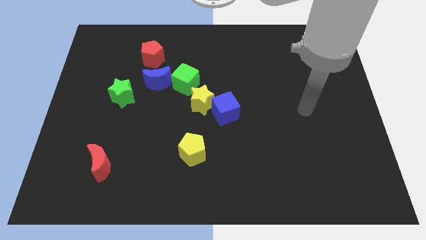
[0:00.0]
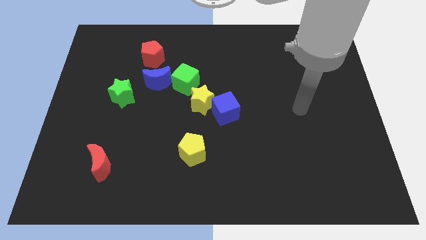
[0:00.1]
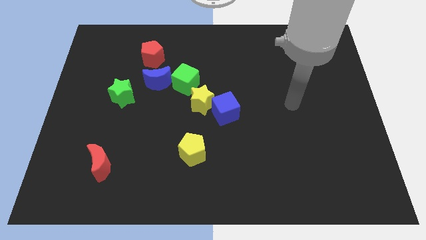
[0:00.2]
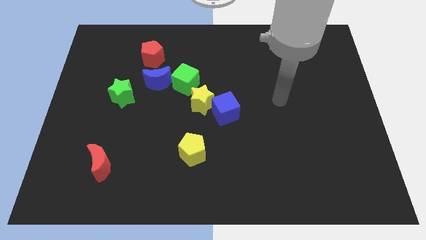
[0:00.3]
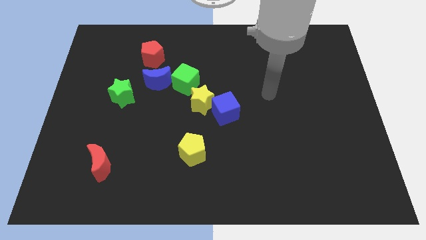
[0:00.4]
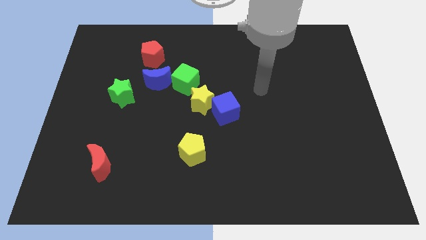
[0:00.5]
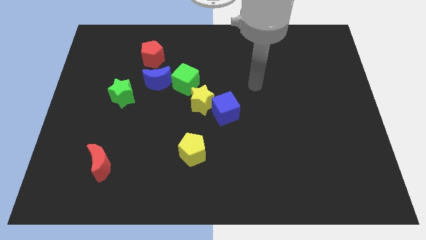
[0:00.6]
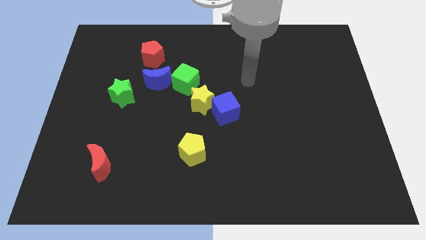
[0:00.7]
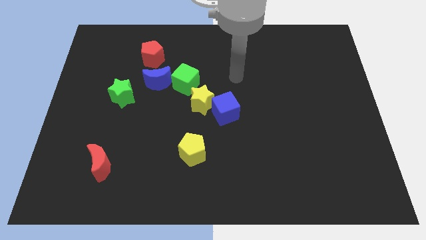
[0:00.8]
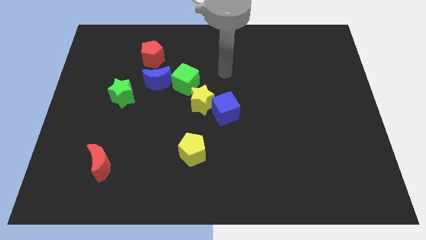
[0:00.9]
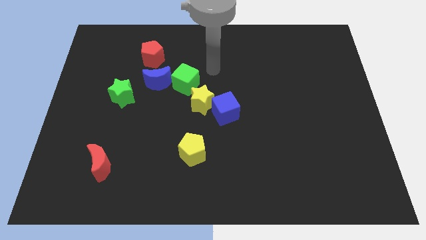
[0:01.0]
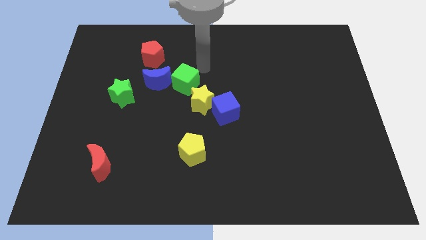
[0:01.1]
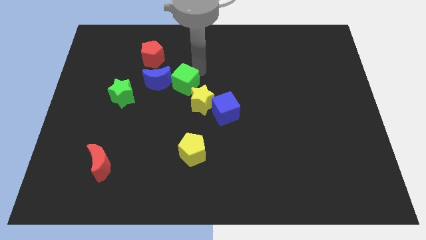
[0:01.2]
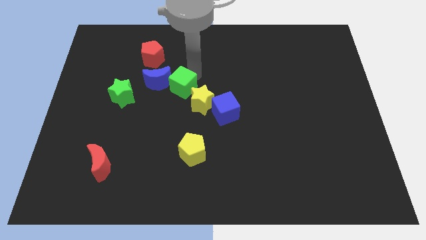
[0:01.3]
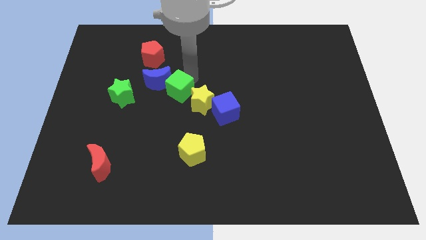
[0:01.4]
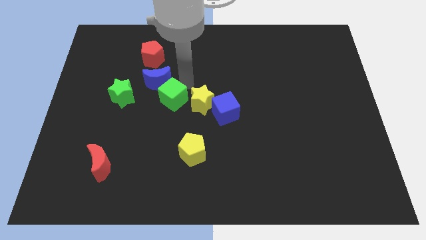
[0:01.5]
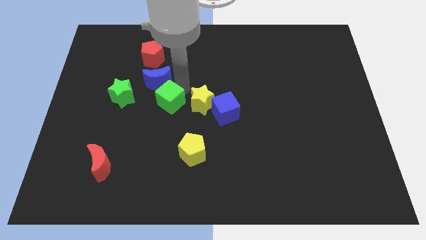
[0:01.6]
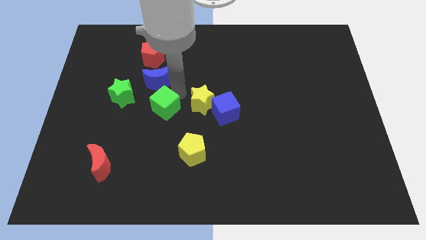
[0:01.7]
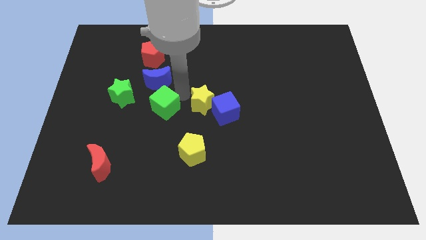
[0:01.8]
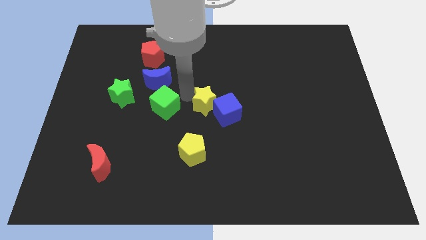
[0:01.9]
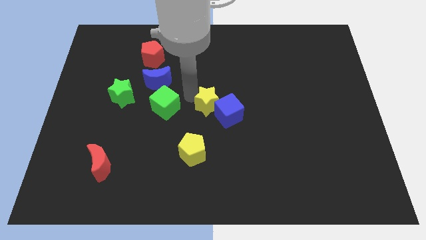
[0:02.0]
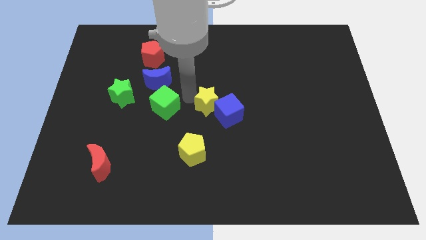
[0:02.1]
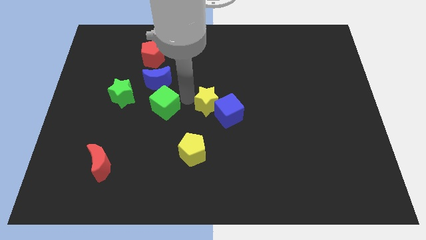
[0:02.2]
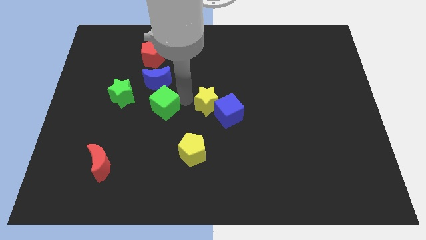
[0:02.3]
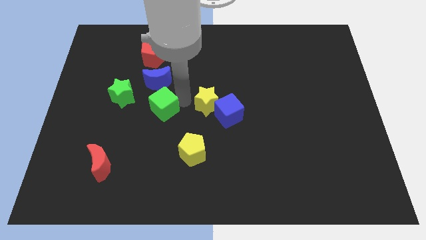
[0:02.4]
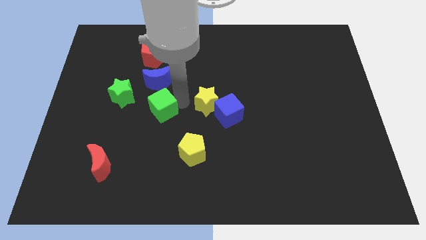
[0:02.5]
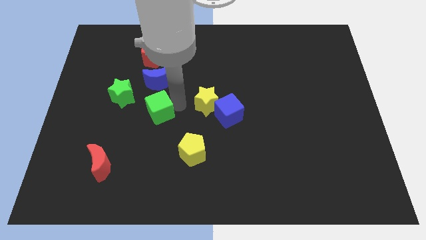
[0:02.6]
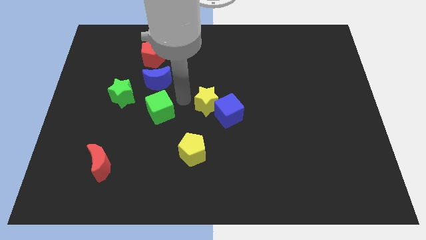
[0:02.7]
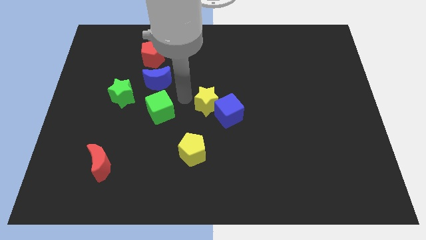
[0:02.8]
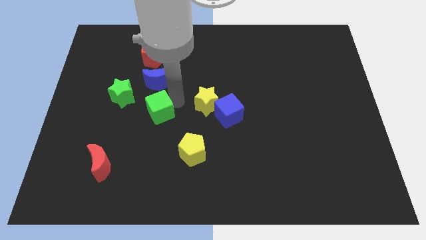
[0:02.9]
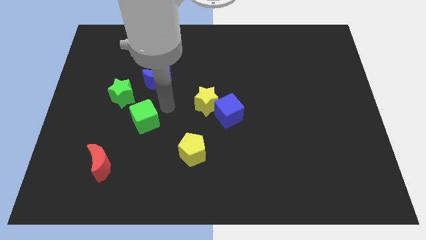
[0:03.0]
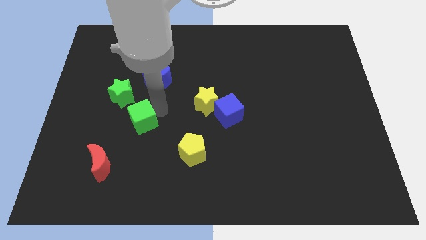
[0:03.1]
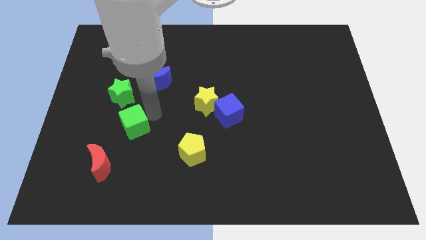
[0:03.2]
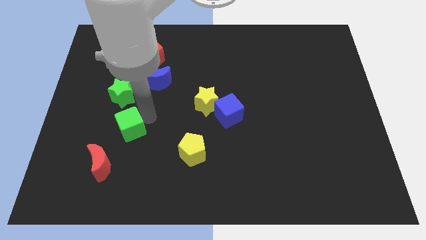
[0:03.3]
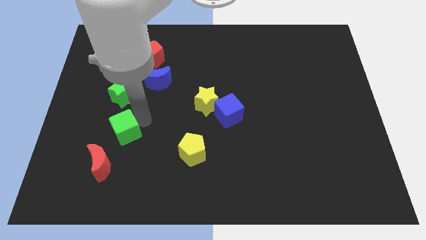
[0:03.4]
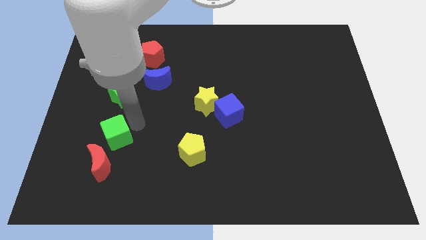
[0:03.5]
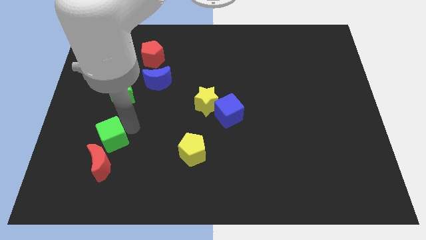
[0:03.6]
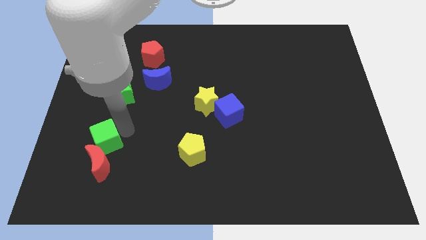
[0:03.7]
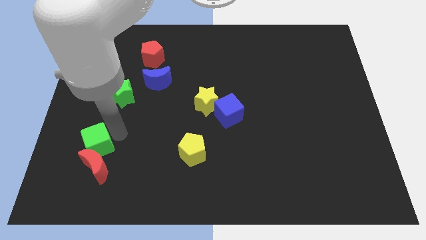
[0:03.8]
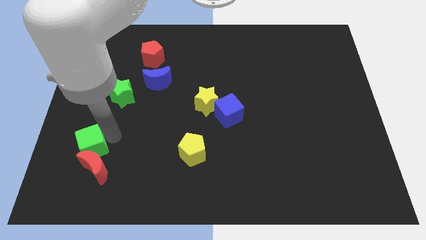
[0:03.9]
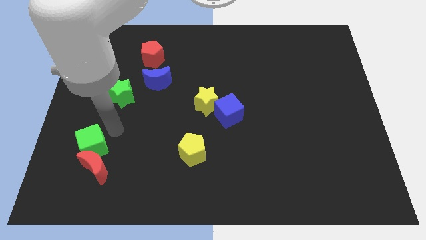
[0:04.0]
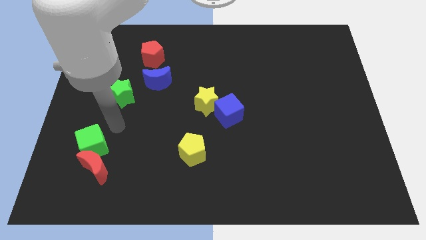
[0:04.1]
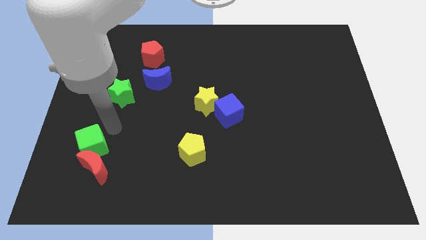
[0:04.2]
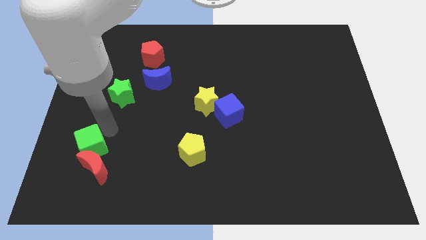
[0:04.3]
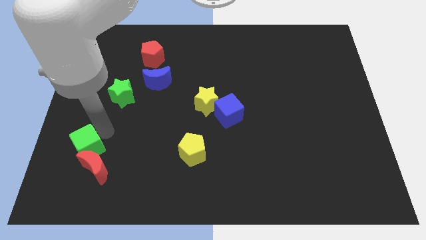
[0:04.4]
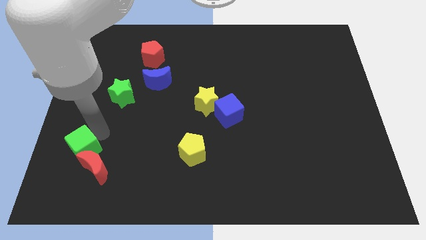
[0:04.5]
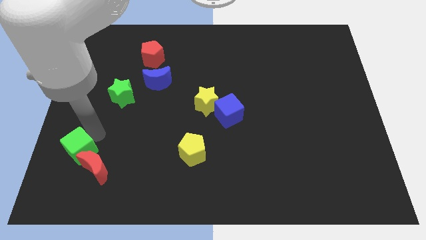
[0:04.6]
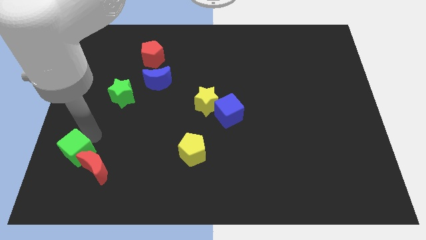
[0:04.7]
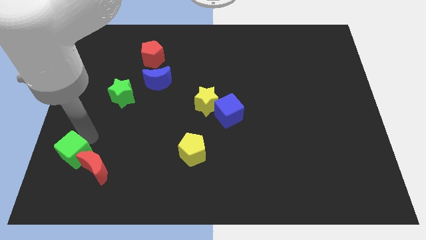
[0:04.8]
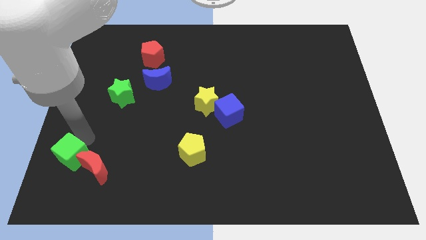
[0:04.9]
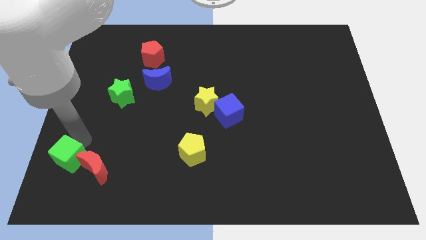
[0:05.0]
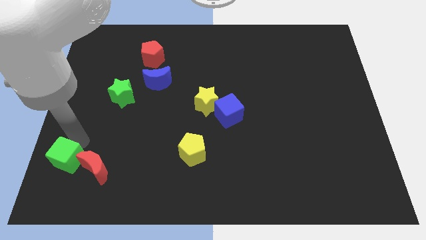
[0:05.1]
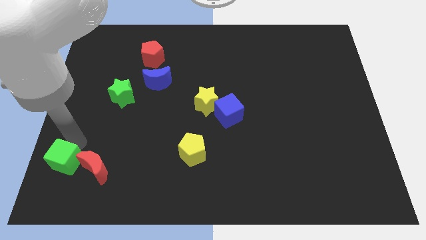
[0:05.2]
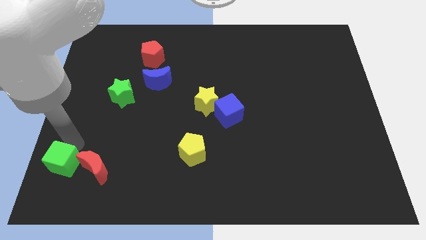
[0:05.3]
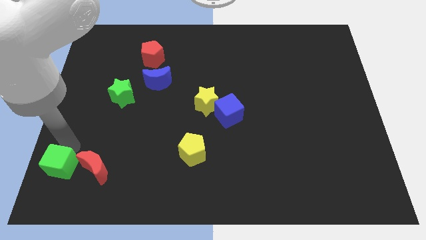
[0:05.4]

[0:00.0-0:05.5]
move the green cube to the bottom left

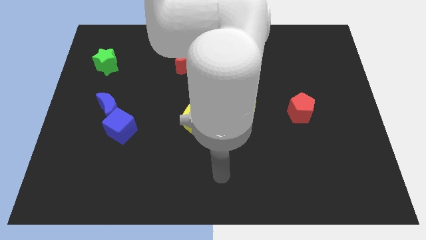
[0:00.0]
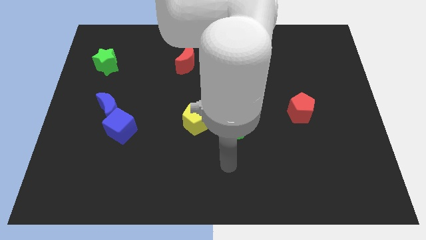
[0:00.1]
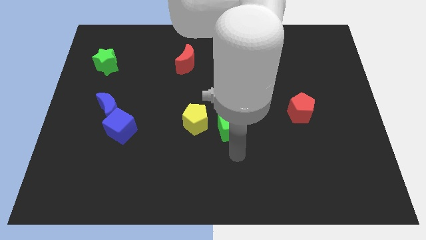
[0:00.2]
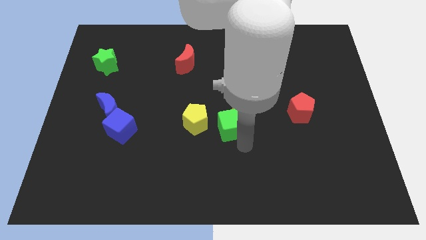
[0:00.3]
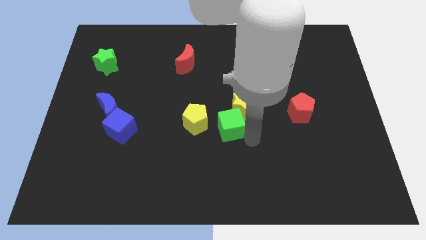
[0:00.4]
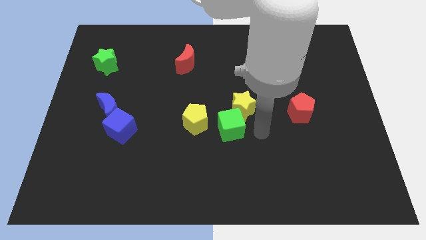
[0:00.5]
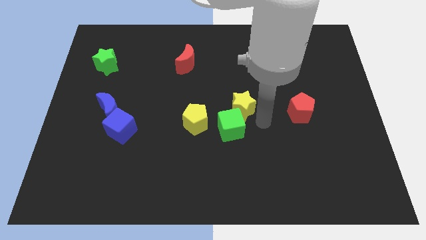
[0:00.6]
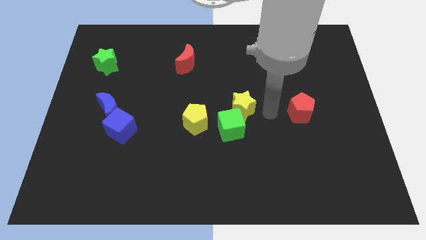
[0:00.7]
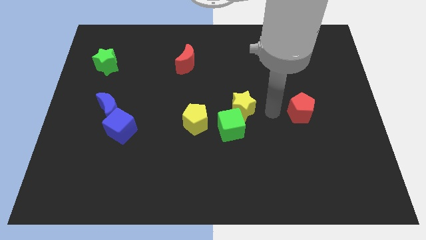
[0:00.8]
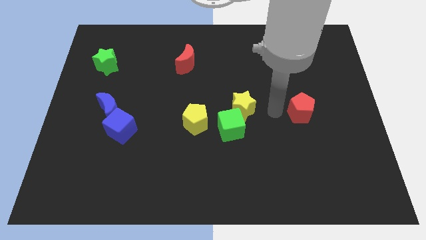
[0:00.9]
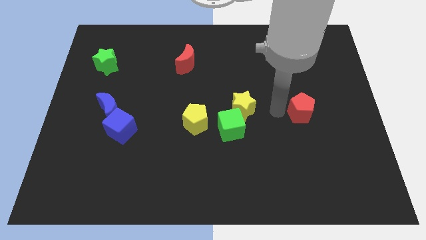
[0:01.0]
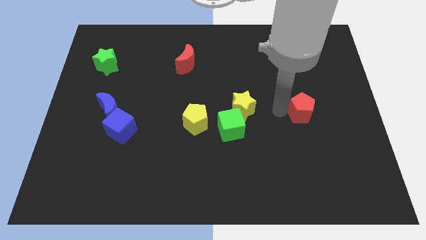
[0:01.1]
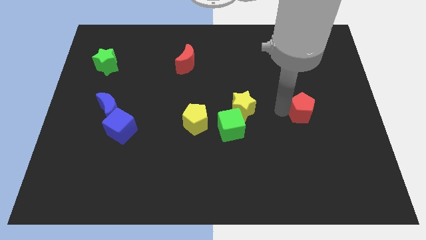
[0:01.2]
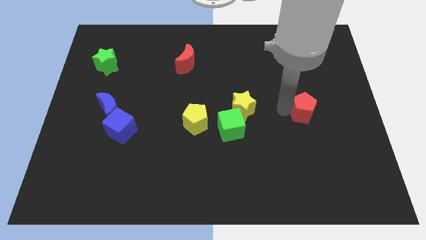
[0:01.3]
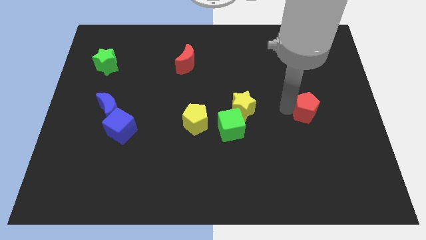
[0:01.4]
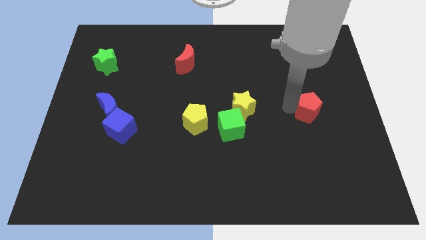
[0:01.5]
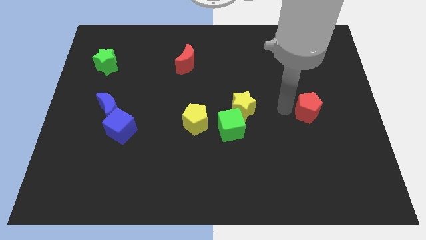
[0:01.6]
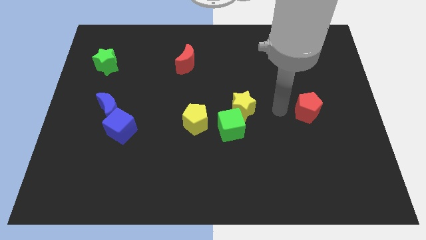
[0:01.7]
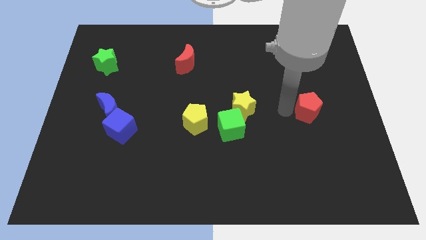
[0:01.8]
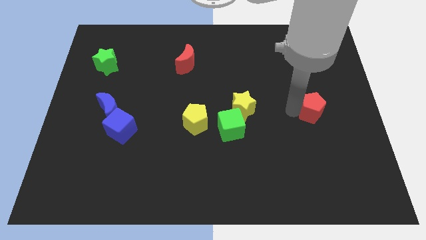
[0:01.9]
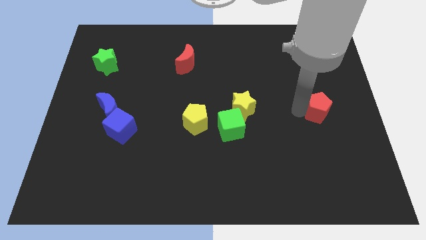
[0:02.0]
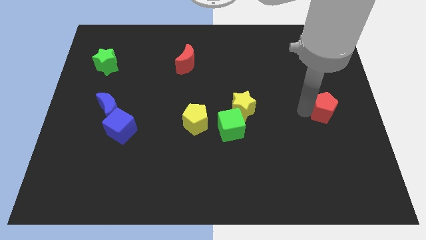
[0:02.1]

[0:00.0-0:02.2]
put the red pentagon to the center right
